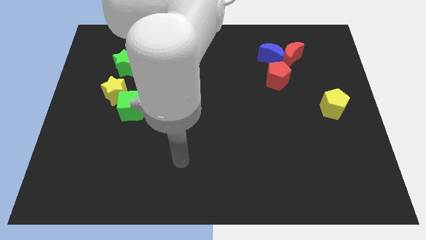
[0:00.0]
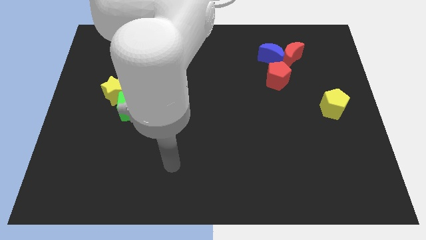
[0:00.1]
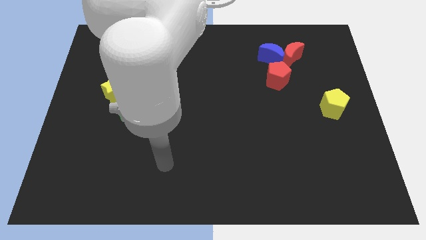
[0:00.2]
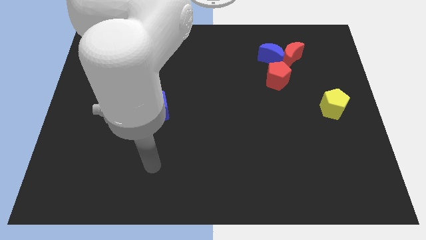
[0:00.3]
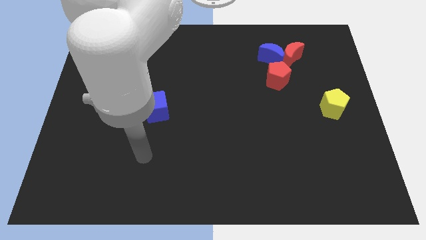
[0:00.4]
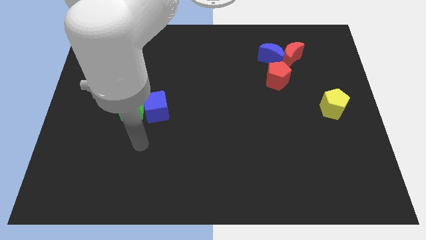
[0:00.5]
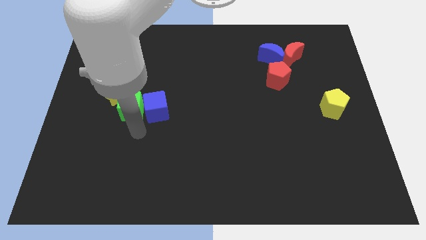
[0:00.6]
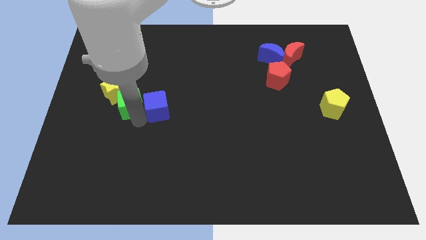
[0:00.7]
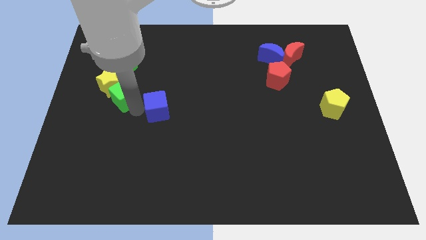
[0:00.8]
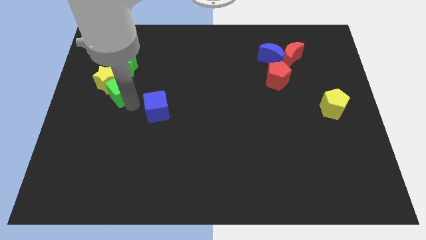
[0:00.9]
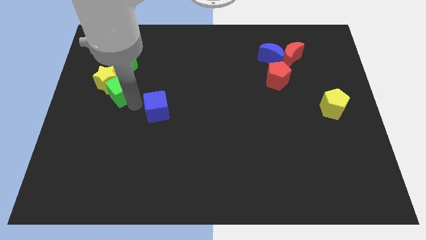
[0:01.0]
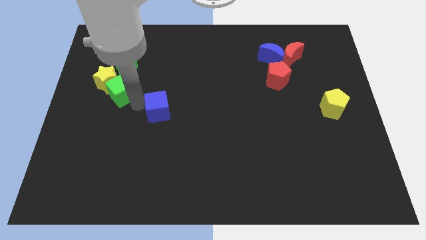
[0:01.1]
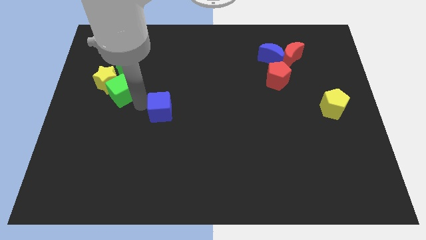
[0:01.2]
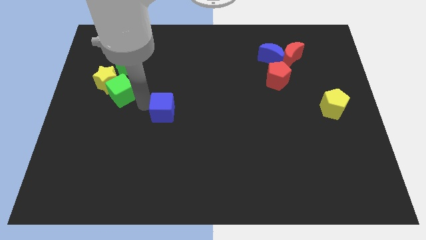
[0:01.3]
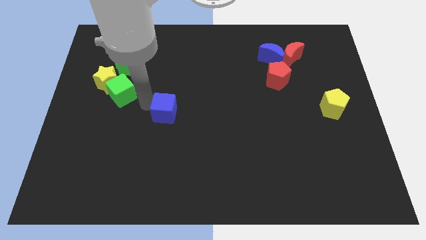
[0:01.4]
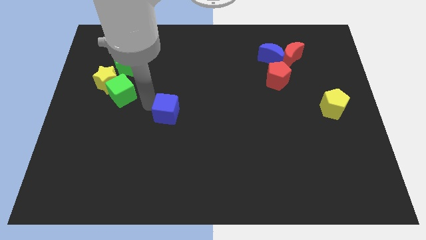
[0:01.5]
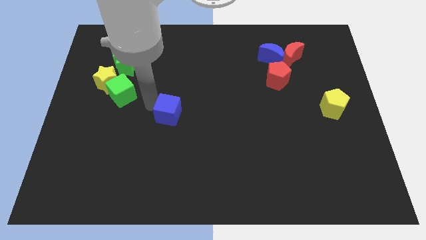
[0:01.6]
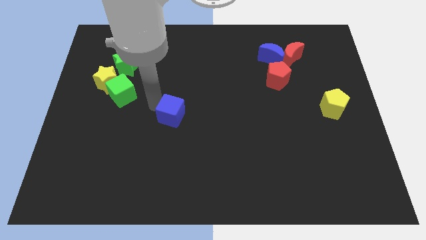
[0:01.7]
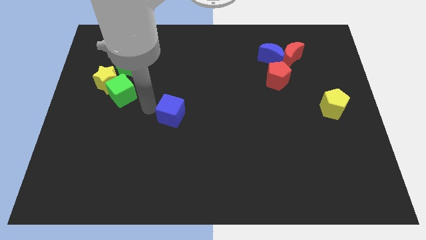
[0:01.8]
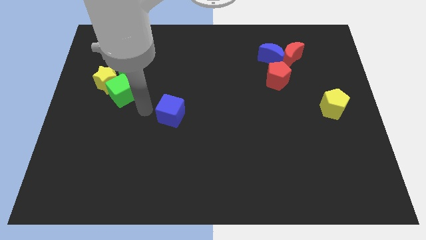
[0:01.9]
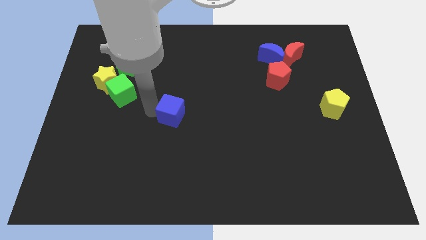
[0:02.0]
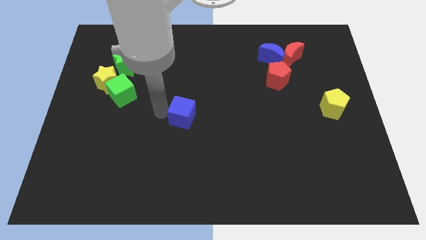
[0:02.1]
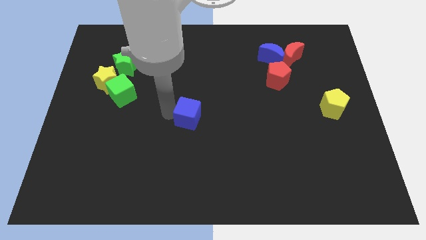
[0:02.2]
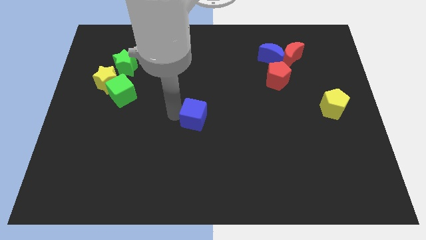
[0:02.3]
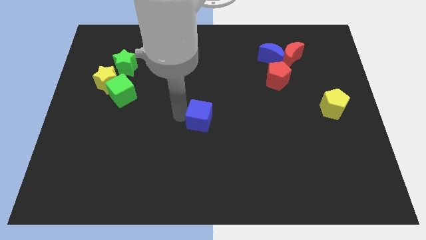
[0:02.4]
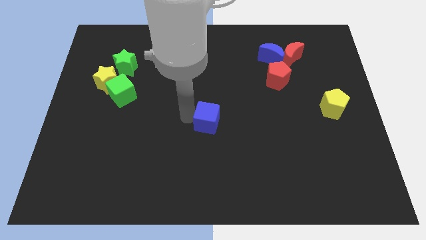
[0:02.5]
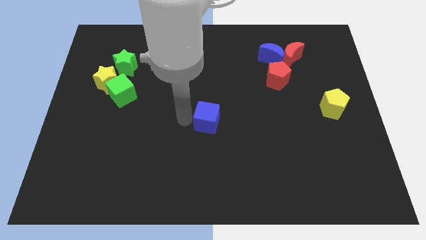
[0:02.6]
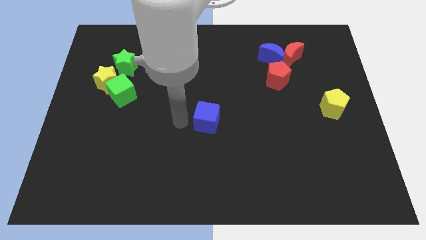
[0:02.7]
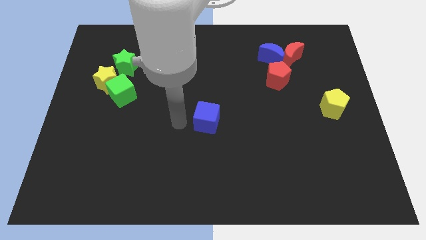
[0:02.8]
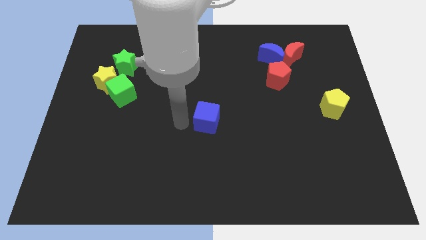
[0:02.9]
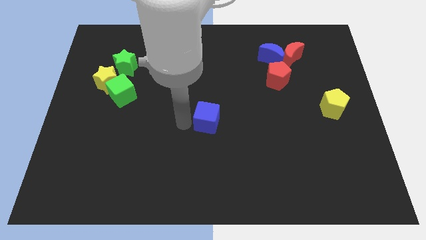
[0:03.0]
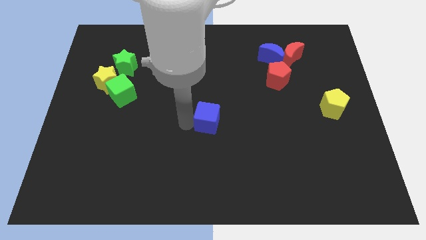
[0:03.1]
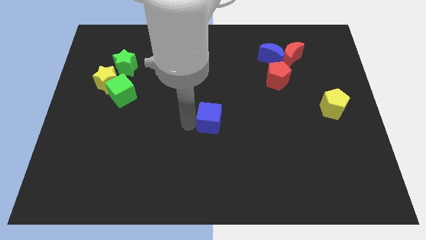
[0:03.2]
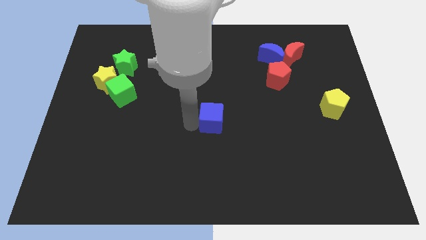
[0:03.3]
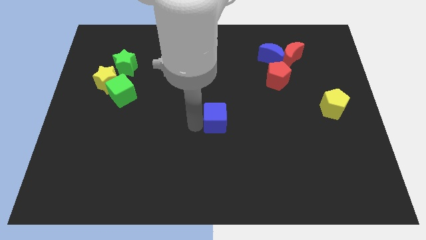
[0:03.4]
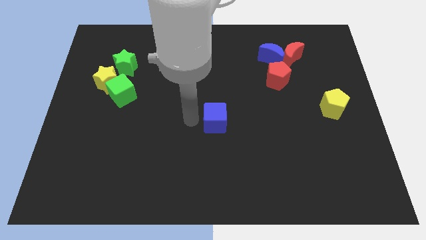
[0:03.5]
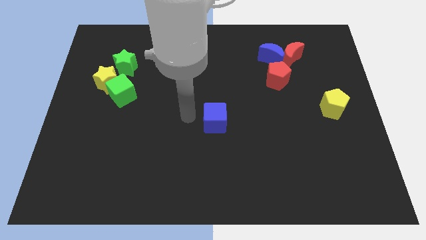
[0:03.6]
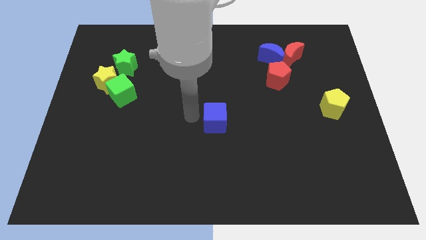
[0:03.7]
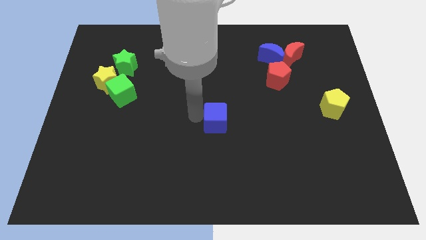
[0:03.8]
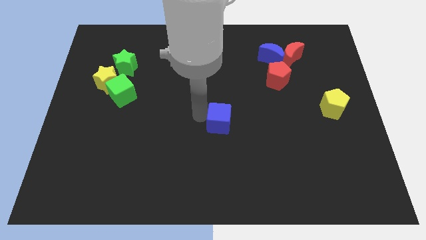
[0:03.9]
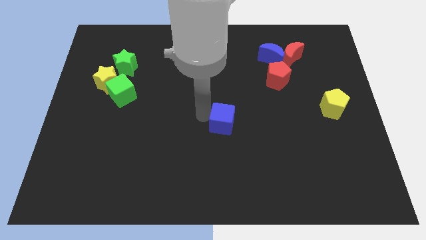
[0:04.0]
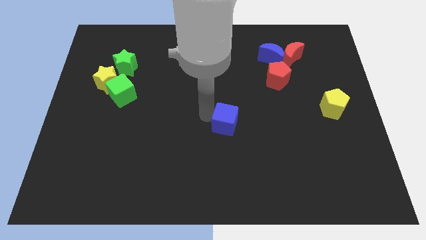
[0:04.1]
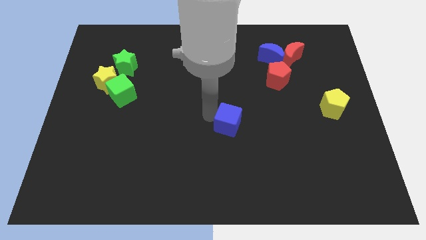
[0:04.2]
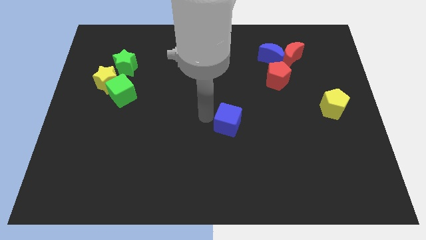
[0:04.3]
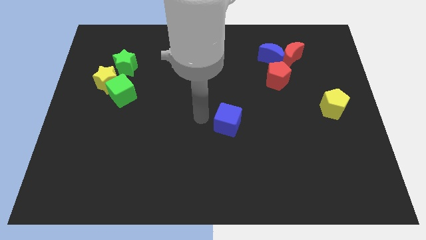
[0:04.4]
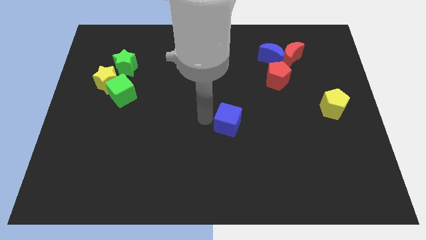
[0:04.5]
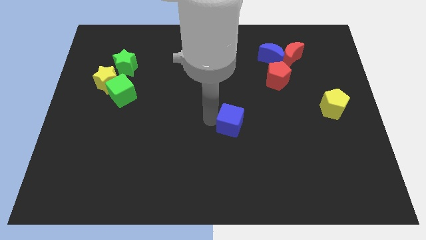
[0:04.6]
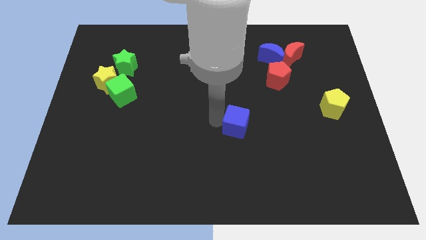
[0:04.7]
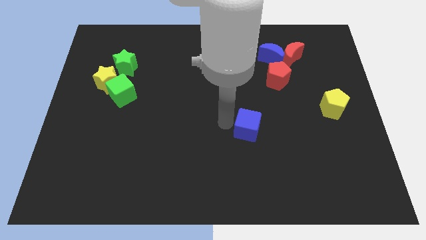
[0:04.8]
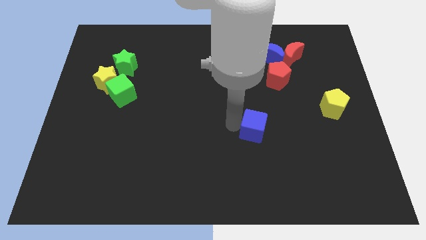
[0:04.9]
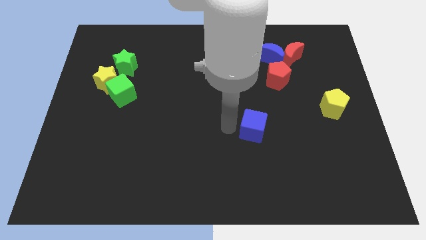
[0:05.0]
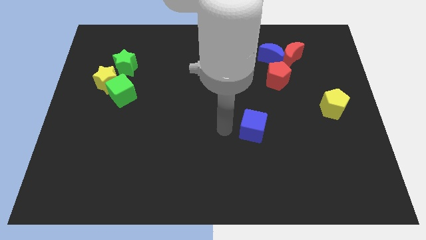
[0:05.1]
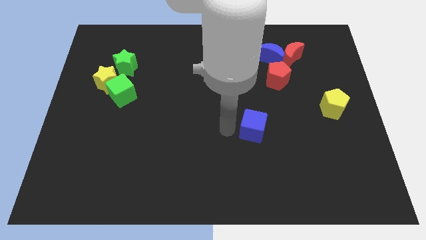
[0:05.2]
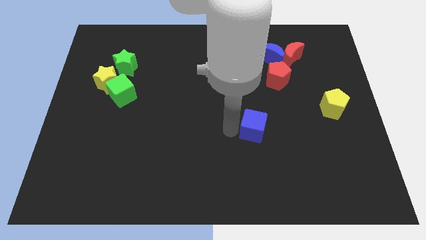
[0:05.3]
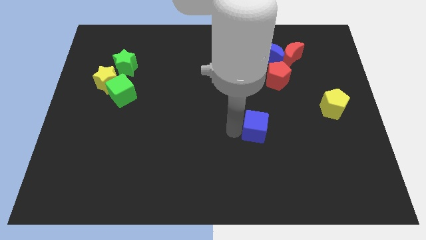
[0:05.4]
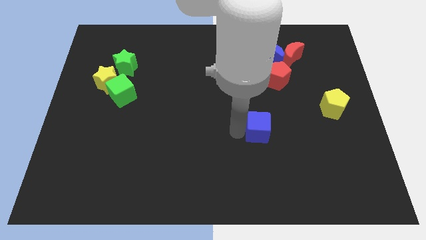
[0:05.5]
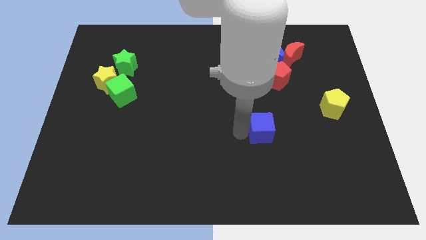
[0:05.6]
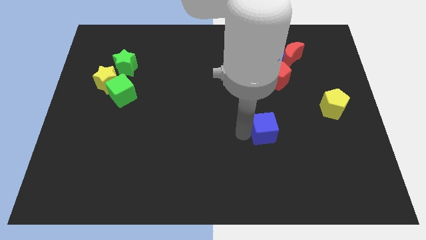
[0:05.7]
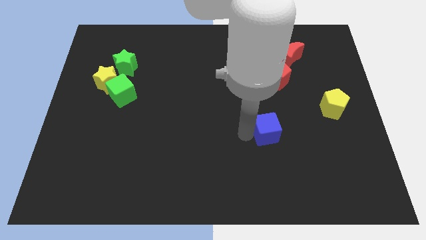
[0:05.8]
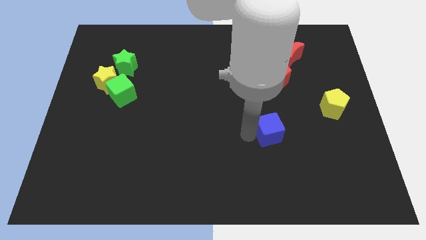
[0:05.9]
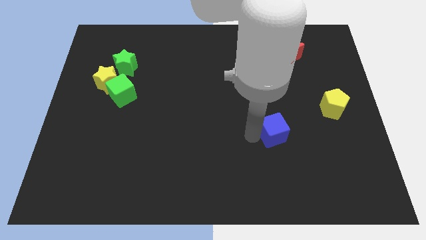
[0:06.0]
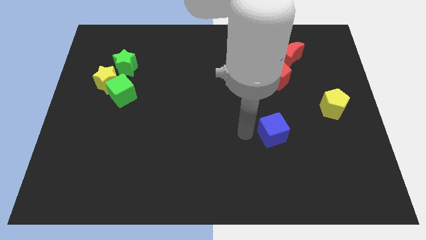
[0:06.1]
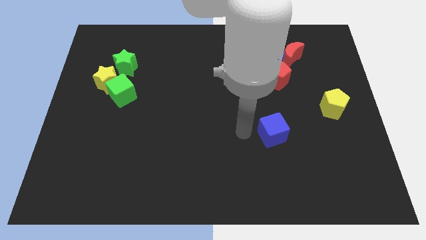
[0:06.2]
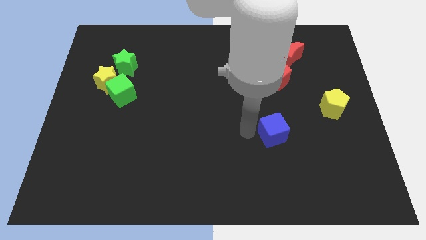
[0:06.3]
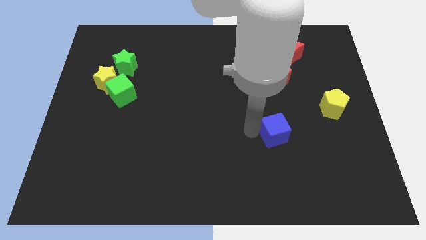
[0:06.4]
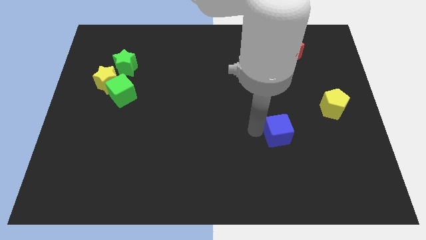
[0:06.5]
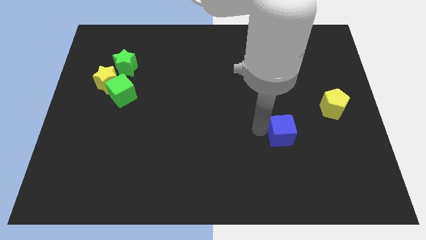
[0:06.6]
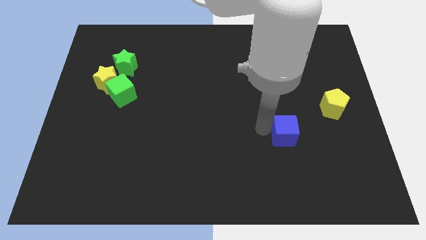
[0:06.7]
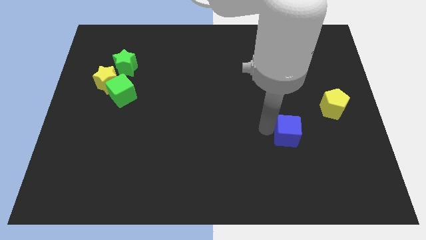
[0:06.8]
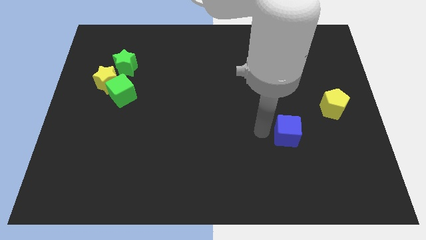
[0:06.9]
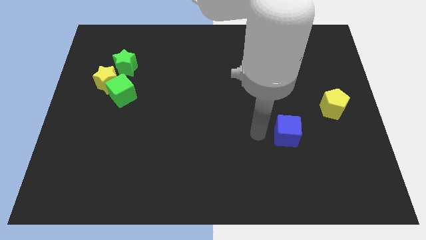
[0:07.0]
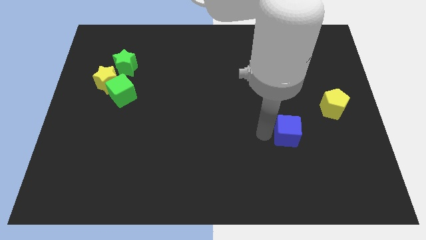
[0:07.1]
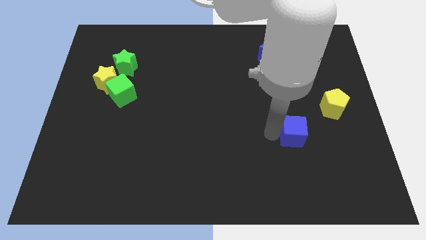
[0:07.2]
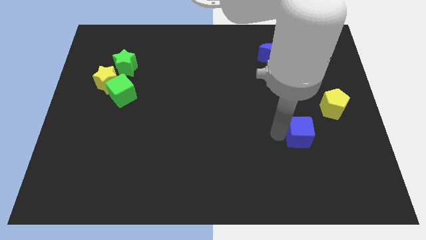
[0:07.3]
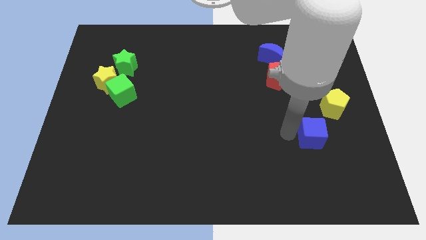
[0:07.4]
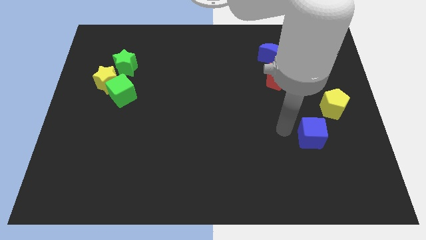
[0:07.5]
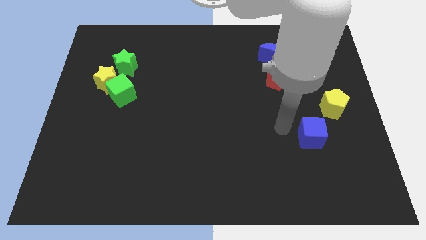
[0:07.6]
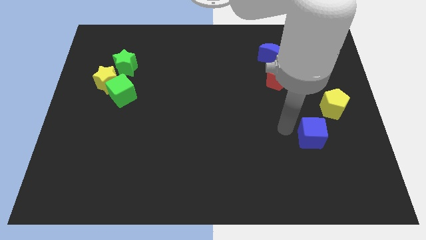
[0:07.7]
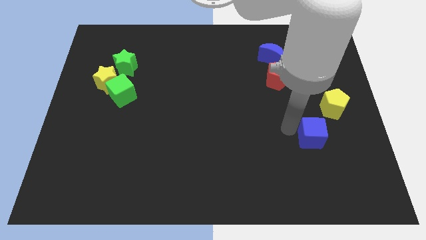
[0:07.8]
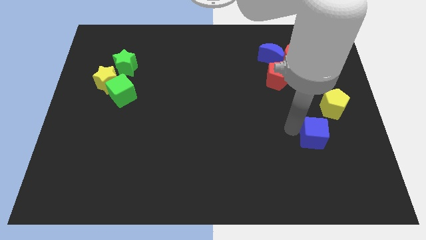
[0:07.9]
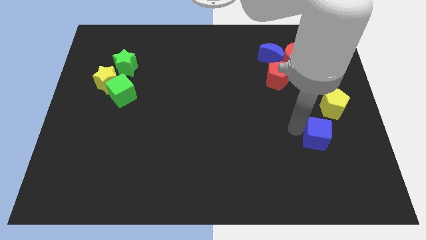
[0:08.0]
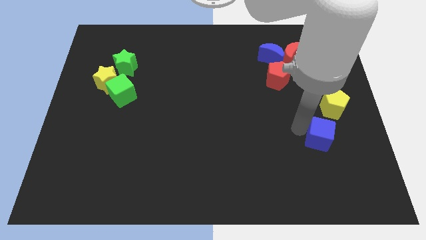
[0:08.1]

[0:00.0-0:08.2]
put the blue cube to the bottom of the yellow pentagon
